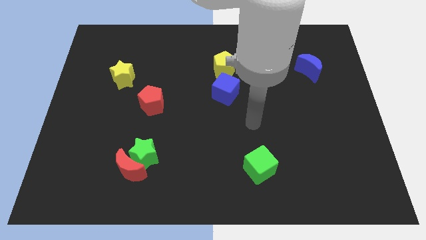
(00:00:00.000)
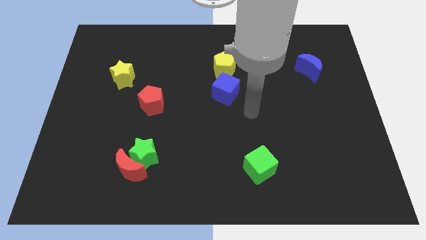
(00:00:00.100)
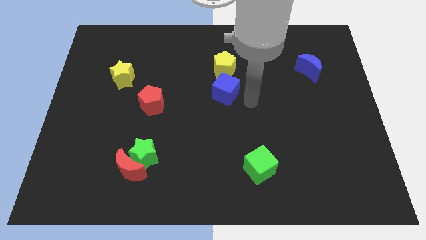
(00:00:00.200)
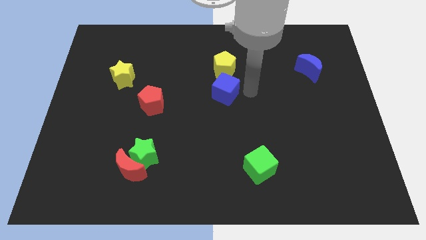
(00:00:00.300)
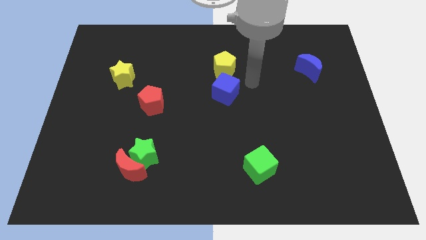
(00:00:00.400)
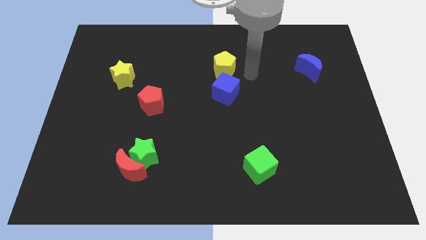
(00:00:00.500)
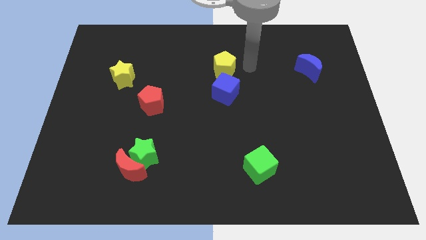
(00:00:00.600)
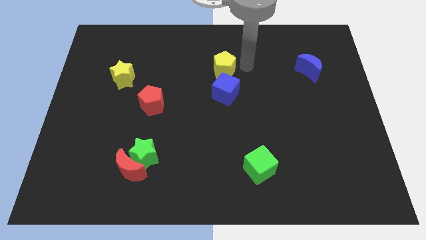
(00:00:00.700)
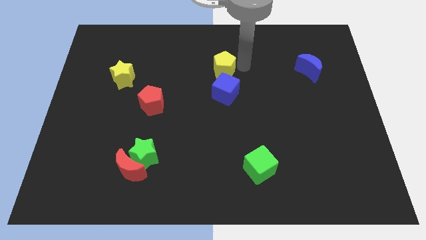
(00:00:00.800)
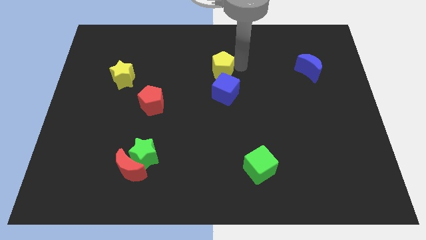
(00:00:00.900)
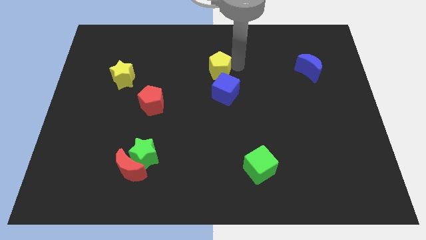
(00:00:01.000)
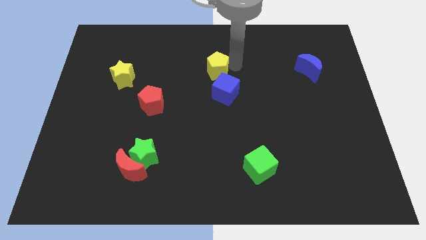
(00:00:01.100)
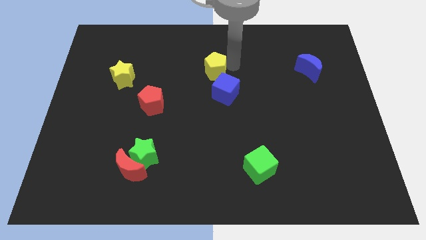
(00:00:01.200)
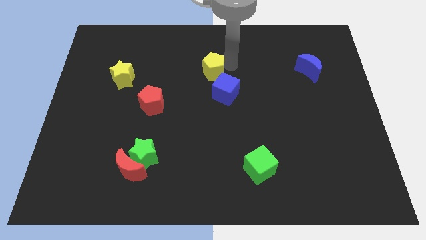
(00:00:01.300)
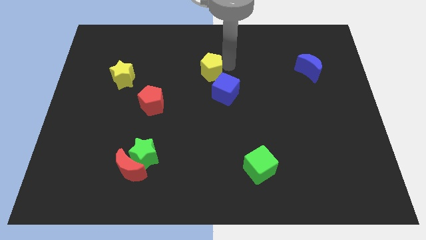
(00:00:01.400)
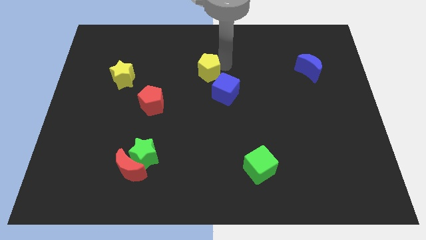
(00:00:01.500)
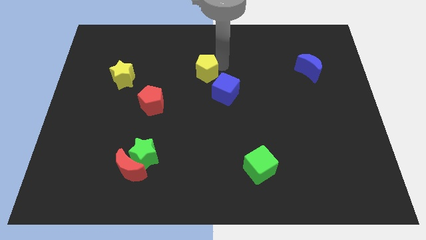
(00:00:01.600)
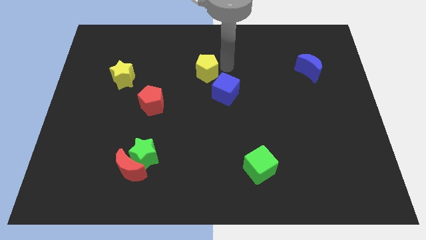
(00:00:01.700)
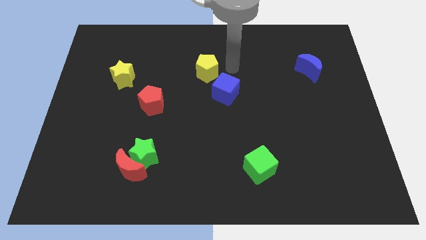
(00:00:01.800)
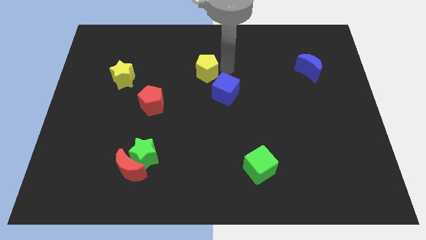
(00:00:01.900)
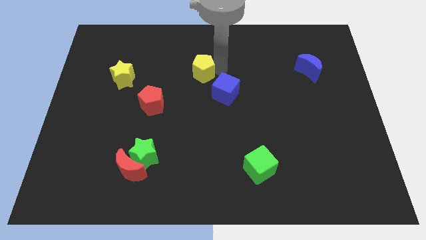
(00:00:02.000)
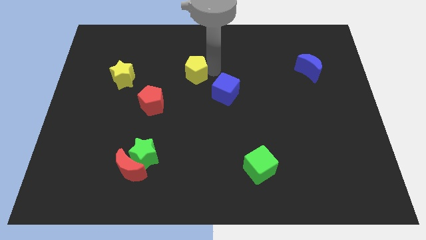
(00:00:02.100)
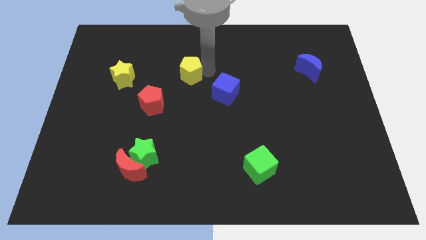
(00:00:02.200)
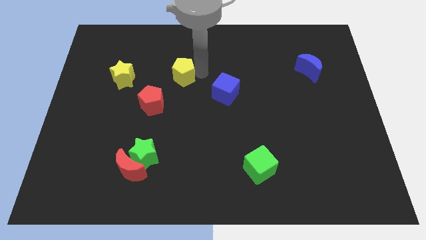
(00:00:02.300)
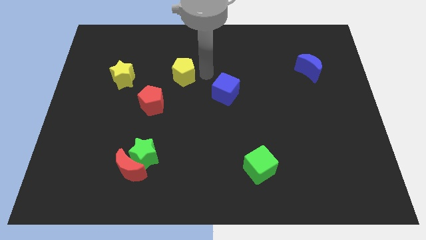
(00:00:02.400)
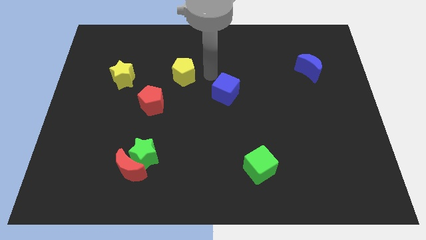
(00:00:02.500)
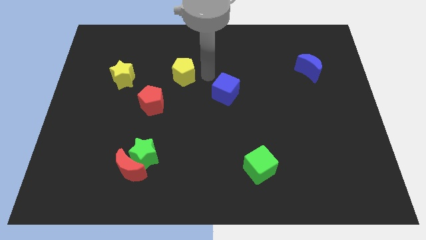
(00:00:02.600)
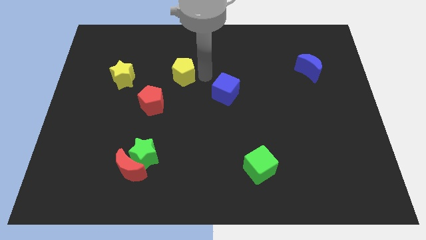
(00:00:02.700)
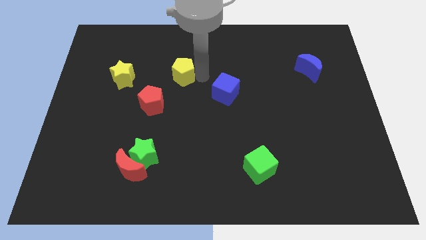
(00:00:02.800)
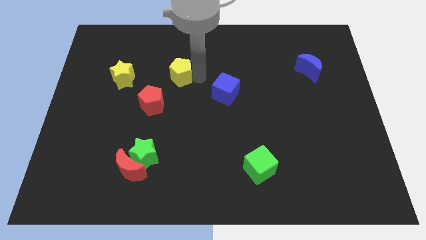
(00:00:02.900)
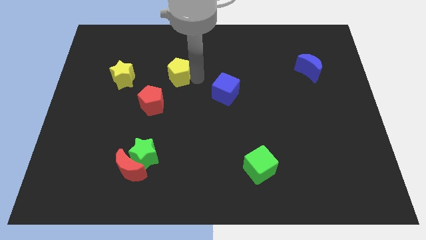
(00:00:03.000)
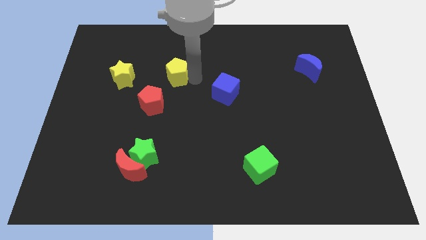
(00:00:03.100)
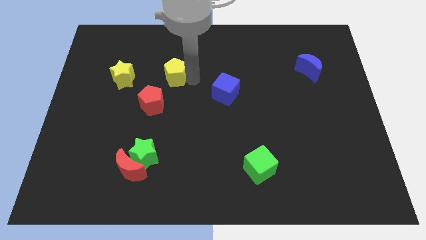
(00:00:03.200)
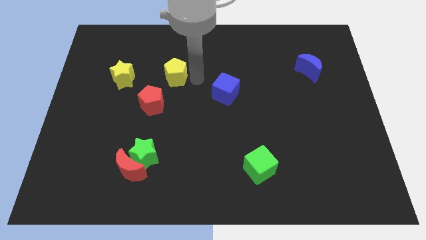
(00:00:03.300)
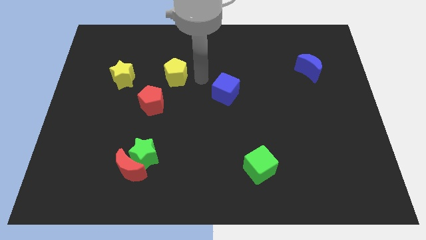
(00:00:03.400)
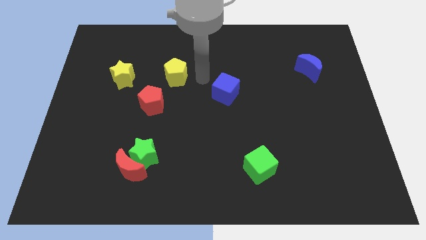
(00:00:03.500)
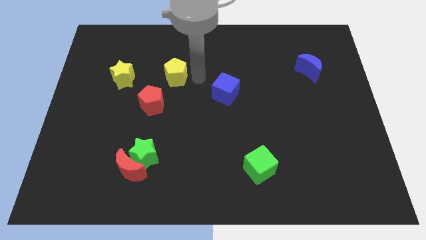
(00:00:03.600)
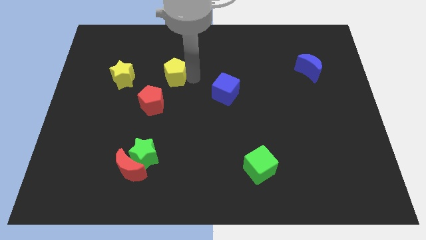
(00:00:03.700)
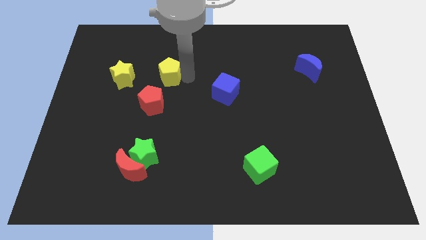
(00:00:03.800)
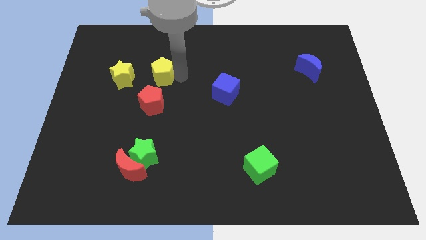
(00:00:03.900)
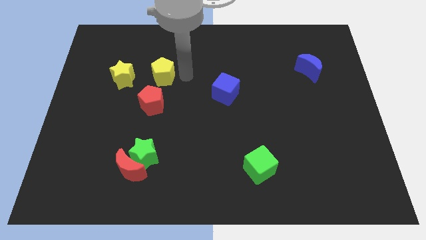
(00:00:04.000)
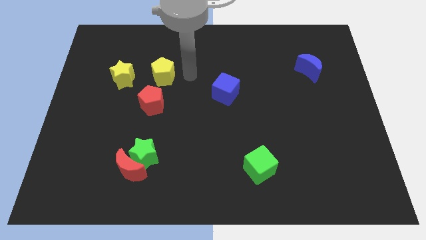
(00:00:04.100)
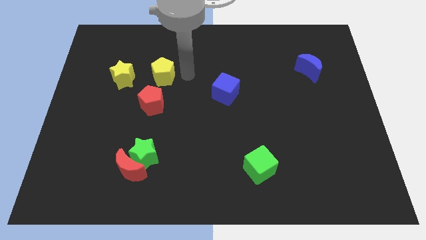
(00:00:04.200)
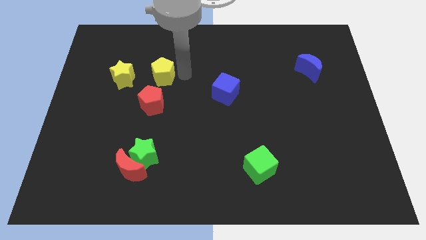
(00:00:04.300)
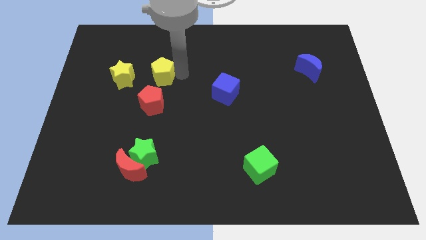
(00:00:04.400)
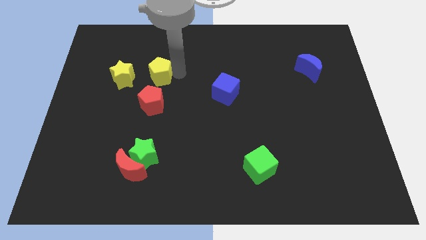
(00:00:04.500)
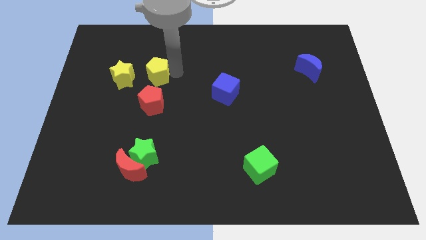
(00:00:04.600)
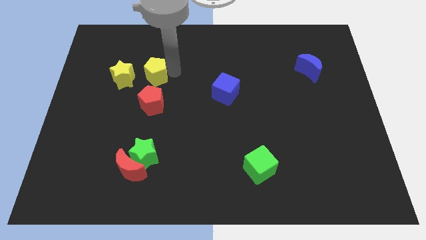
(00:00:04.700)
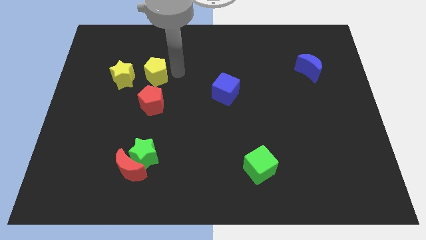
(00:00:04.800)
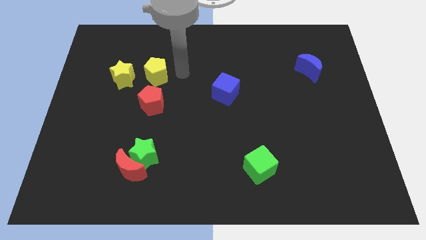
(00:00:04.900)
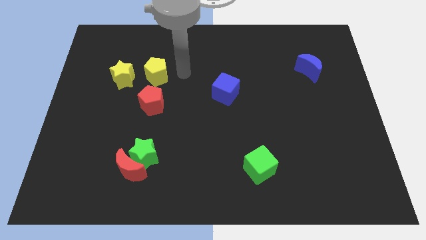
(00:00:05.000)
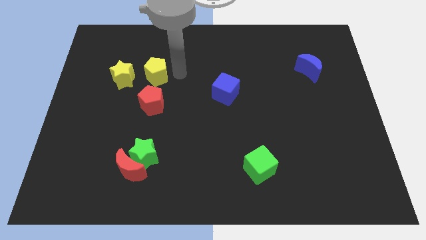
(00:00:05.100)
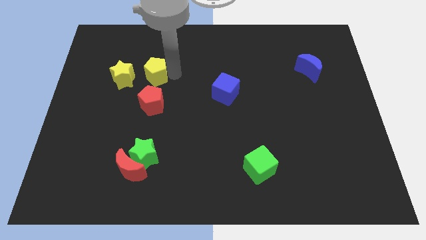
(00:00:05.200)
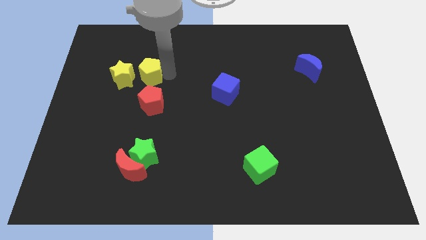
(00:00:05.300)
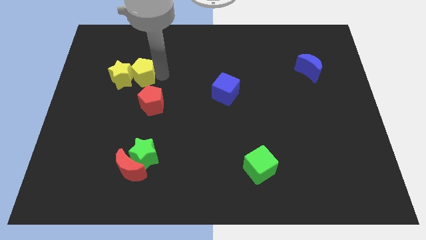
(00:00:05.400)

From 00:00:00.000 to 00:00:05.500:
put the yellow pentagon to the yellow star

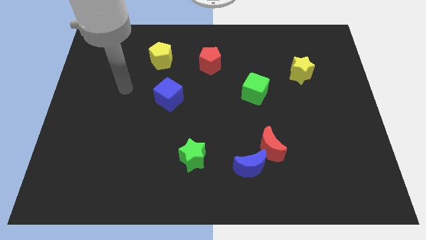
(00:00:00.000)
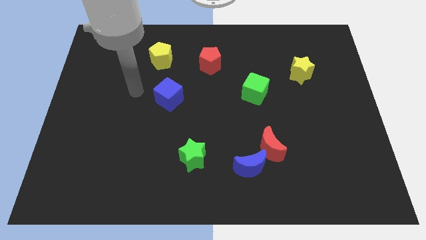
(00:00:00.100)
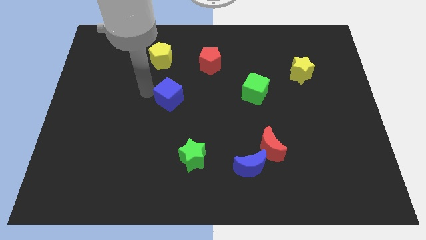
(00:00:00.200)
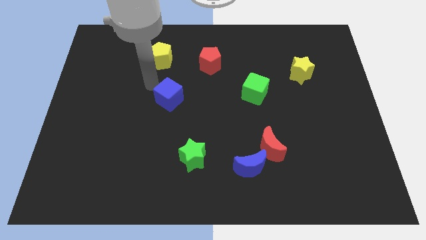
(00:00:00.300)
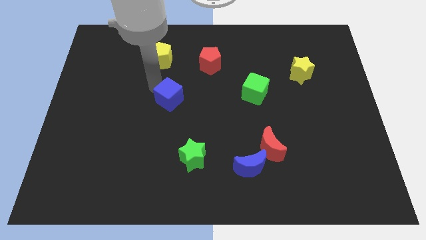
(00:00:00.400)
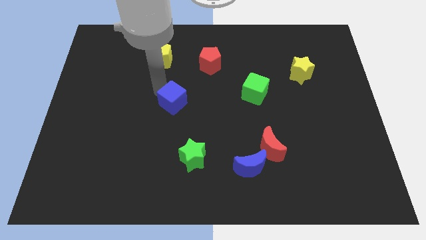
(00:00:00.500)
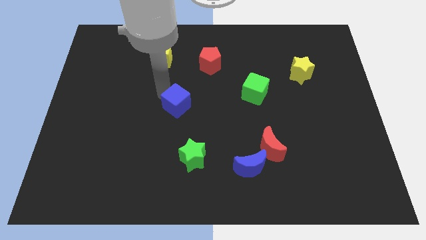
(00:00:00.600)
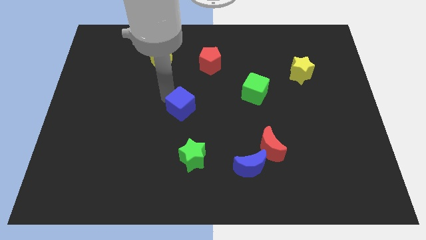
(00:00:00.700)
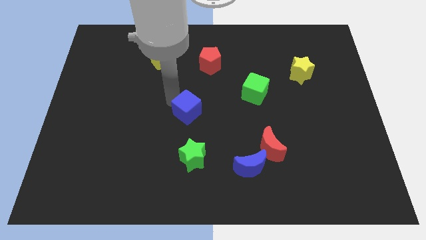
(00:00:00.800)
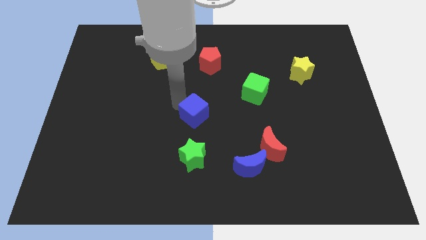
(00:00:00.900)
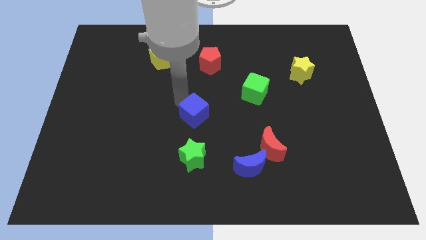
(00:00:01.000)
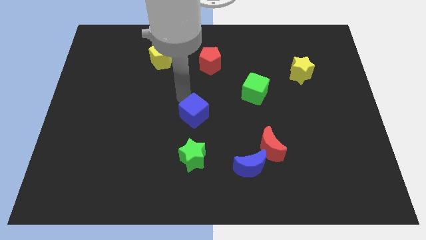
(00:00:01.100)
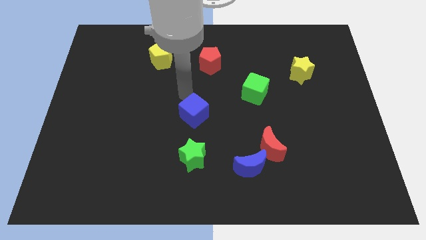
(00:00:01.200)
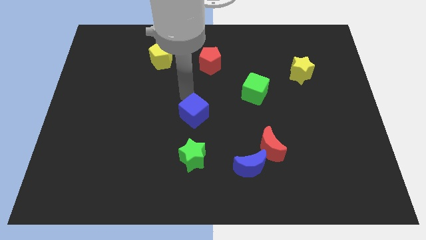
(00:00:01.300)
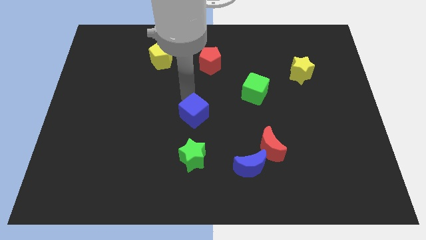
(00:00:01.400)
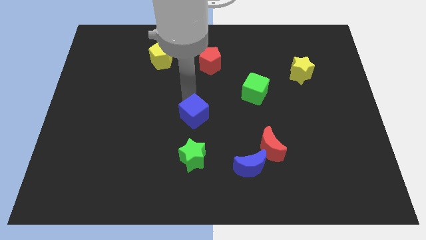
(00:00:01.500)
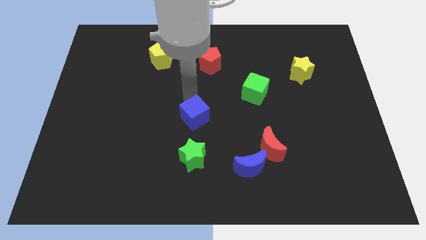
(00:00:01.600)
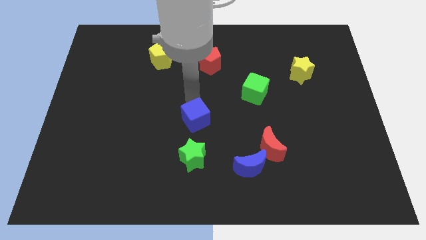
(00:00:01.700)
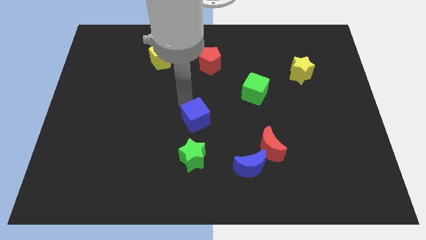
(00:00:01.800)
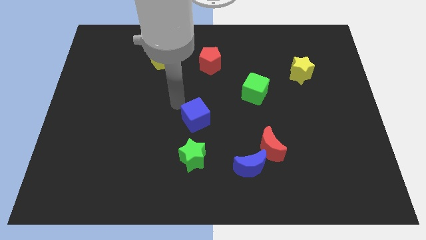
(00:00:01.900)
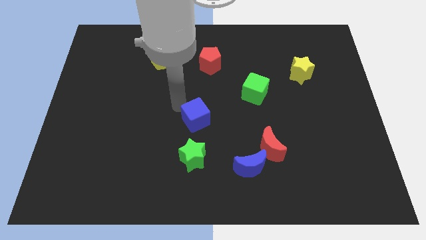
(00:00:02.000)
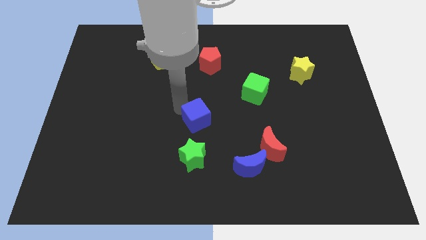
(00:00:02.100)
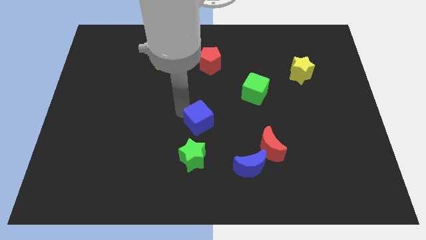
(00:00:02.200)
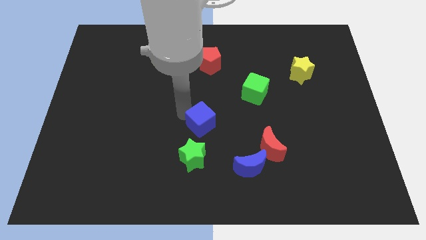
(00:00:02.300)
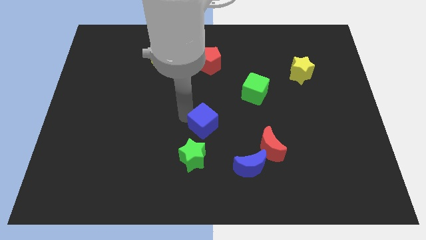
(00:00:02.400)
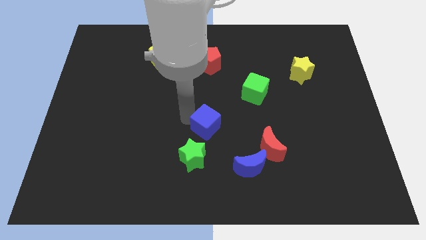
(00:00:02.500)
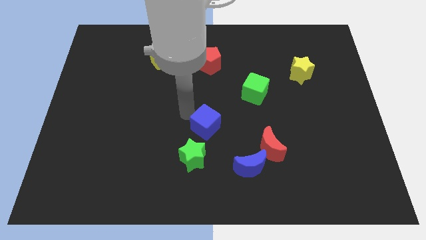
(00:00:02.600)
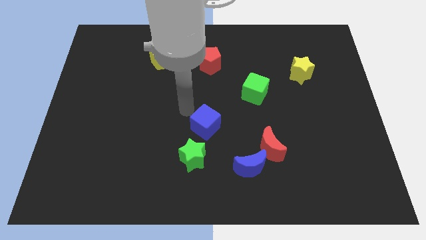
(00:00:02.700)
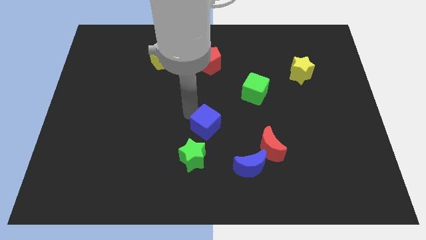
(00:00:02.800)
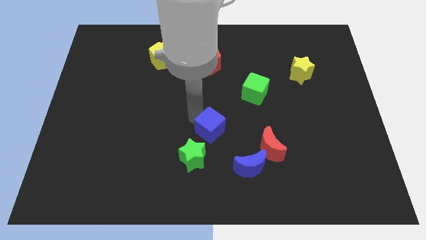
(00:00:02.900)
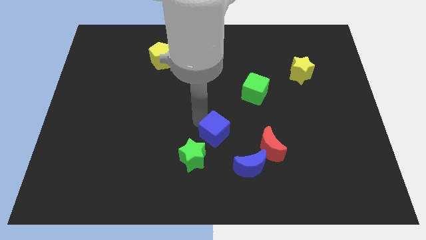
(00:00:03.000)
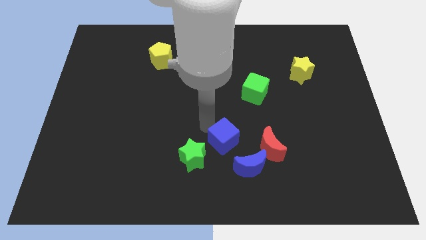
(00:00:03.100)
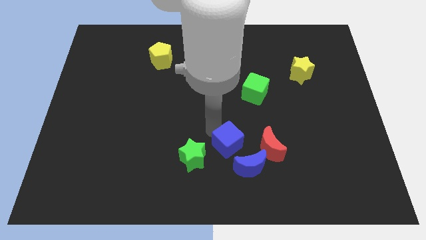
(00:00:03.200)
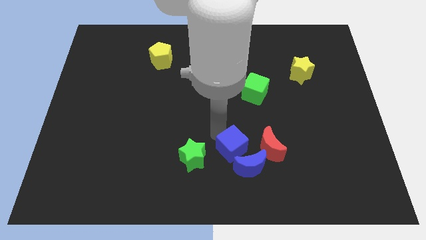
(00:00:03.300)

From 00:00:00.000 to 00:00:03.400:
move the blue cube towards the blue moon
